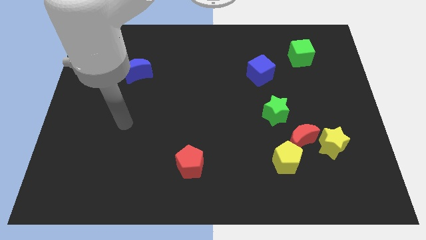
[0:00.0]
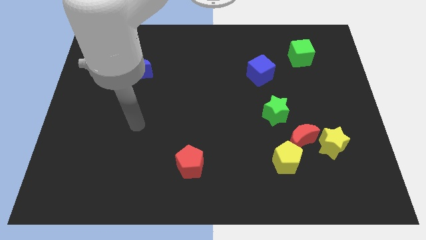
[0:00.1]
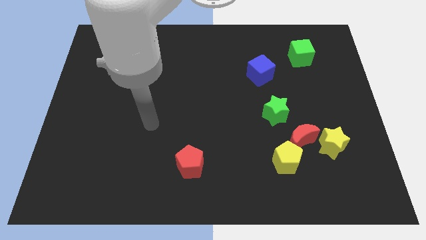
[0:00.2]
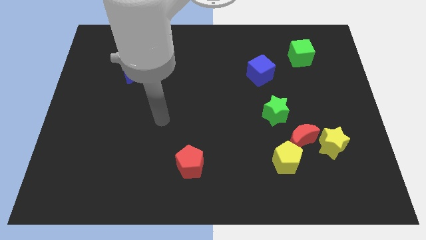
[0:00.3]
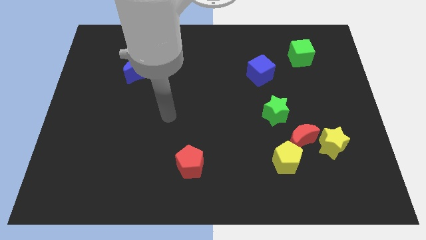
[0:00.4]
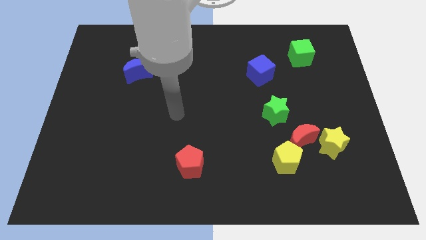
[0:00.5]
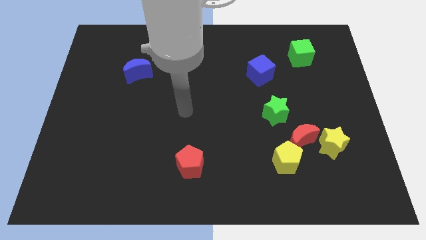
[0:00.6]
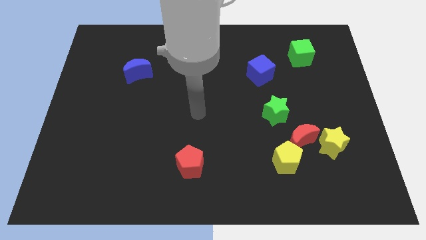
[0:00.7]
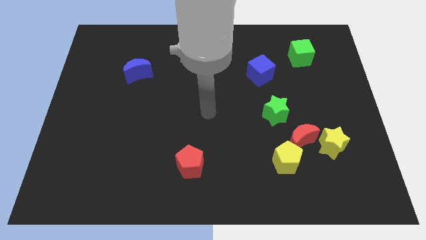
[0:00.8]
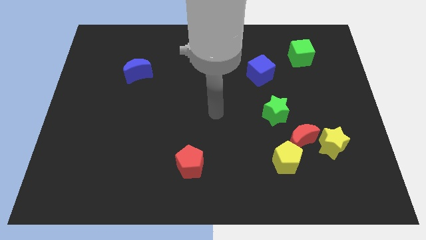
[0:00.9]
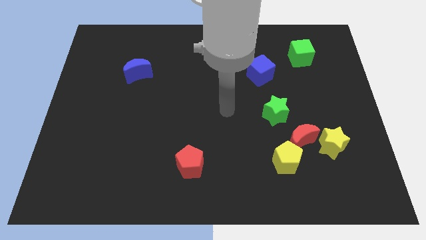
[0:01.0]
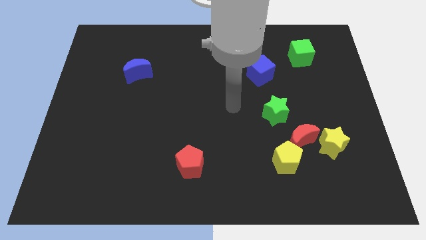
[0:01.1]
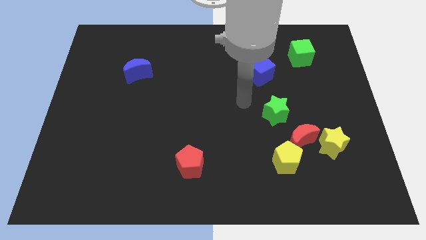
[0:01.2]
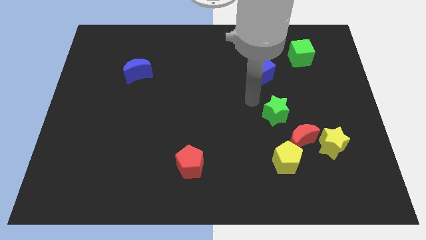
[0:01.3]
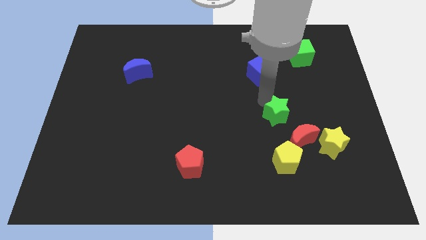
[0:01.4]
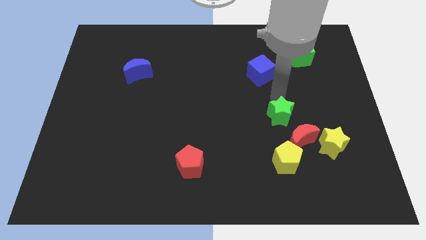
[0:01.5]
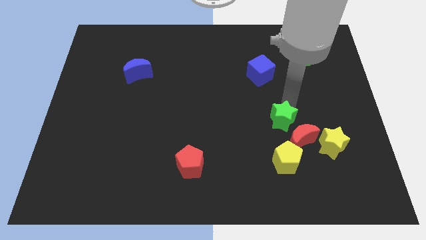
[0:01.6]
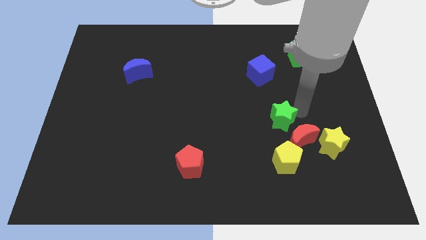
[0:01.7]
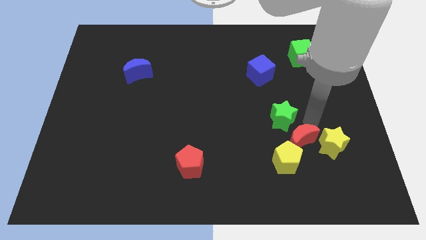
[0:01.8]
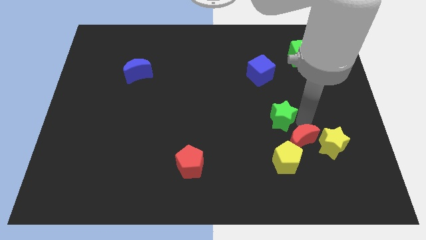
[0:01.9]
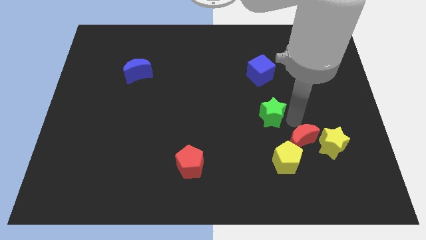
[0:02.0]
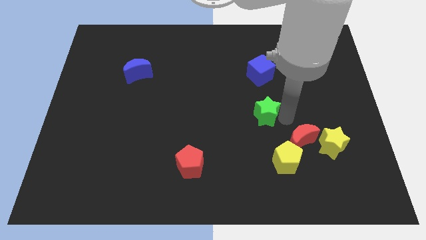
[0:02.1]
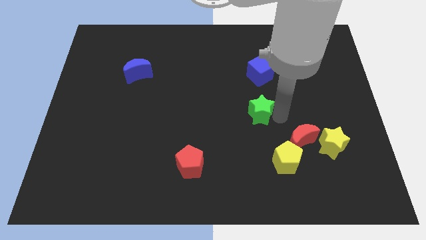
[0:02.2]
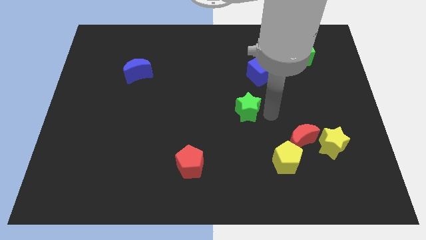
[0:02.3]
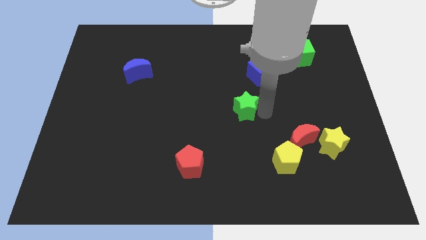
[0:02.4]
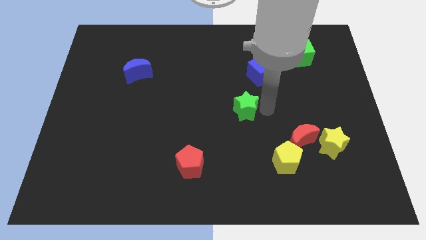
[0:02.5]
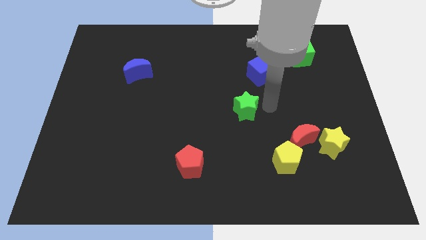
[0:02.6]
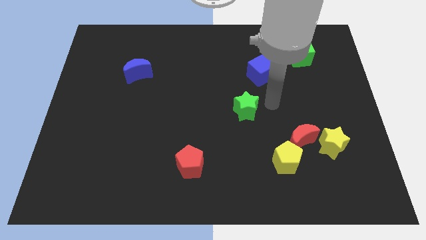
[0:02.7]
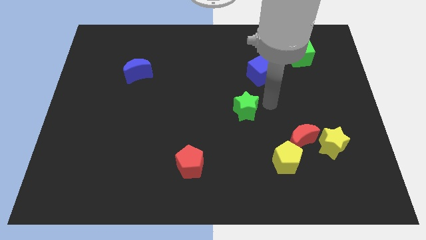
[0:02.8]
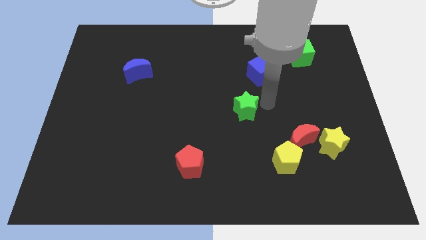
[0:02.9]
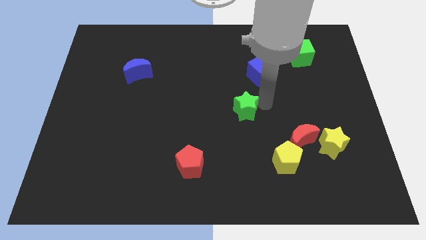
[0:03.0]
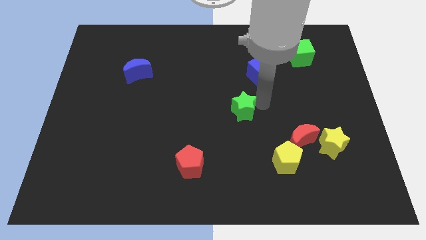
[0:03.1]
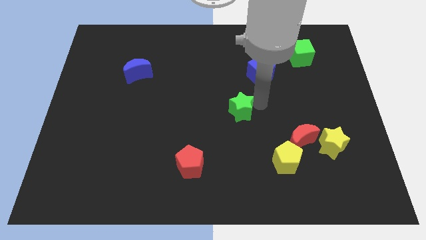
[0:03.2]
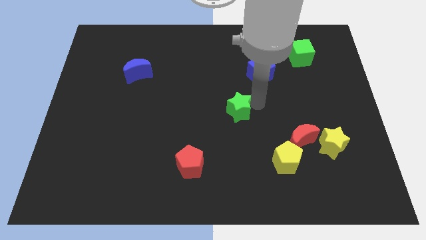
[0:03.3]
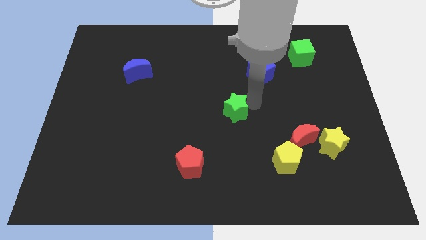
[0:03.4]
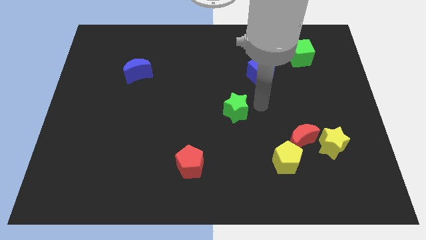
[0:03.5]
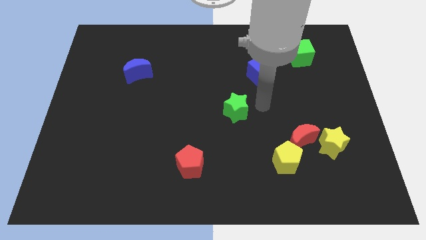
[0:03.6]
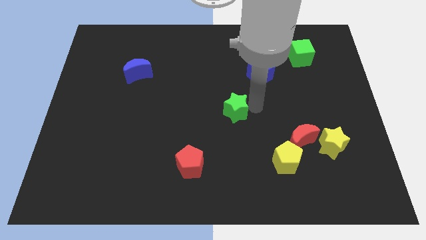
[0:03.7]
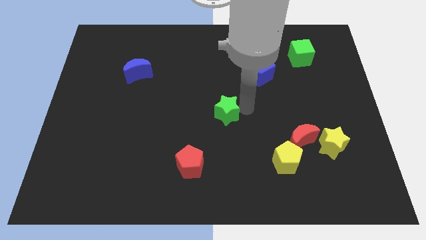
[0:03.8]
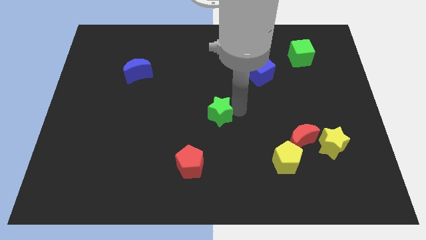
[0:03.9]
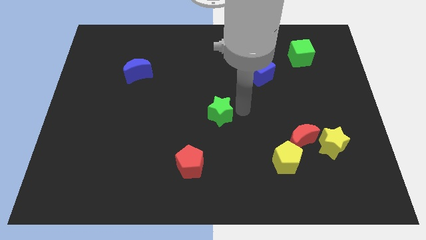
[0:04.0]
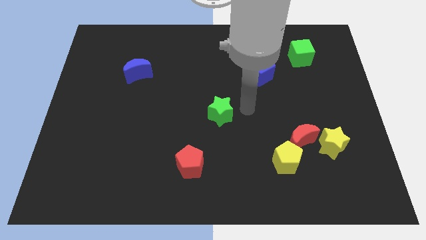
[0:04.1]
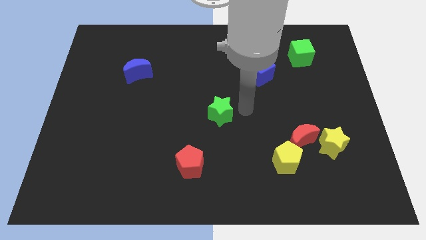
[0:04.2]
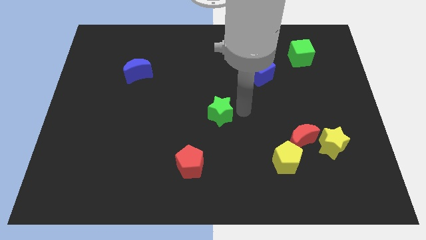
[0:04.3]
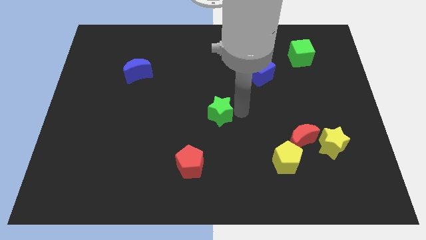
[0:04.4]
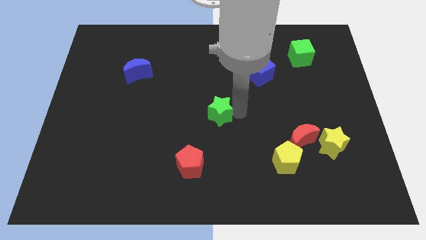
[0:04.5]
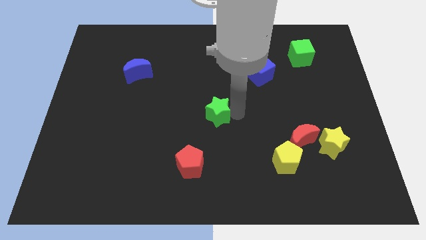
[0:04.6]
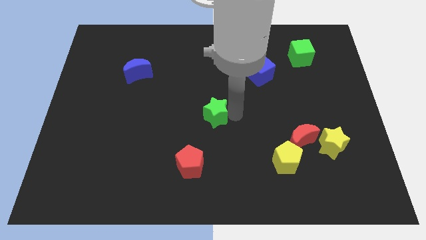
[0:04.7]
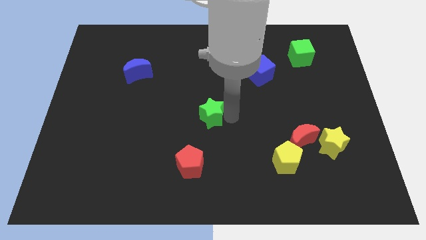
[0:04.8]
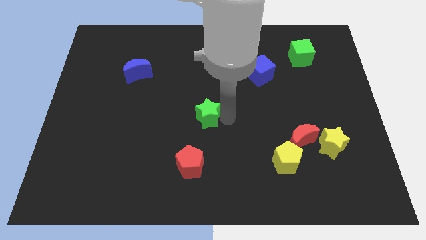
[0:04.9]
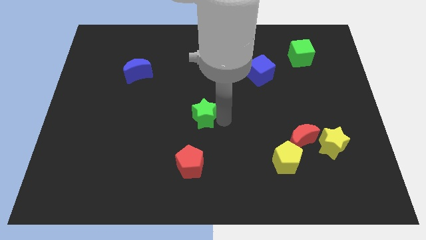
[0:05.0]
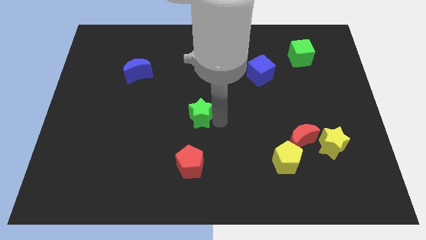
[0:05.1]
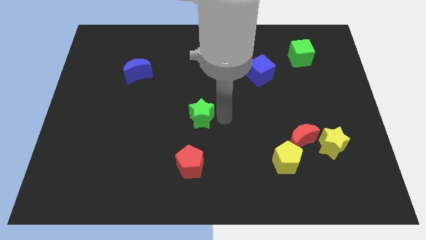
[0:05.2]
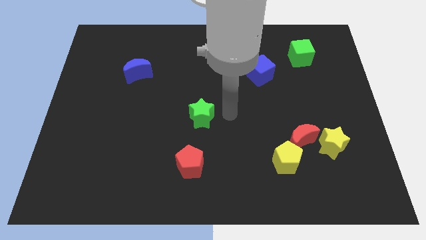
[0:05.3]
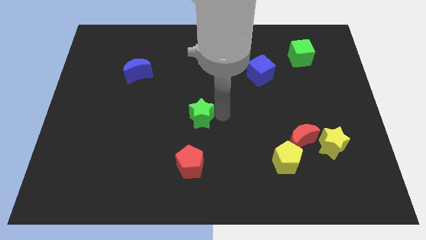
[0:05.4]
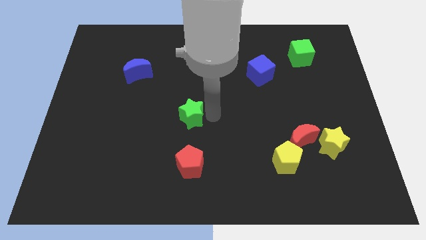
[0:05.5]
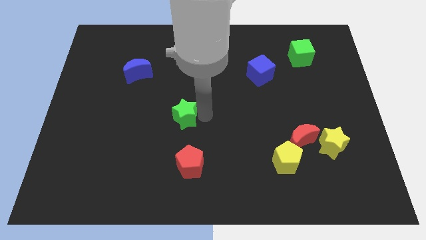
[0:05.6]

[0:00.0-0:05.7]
slide the green star left

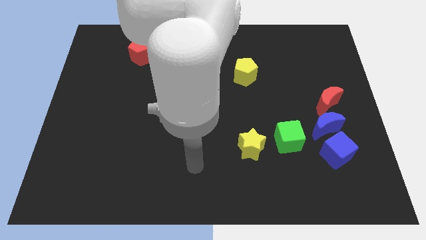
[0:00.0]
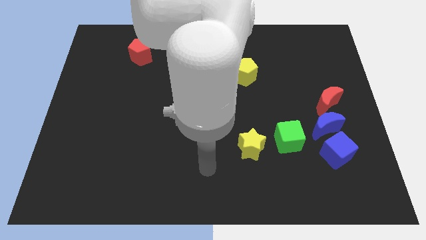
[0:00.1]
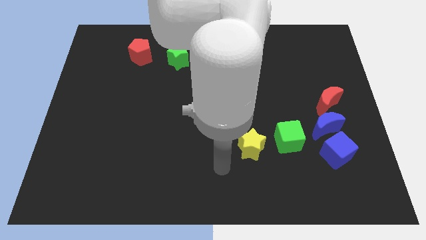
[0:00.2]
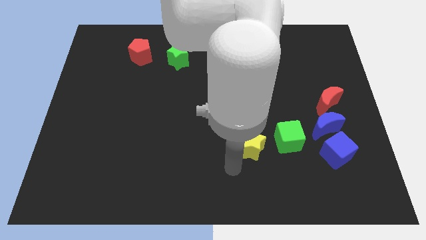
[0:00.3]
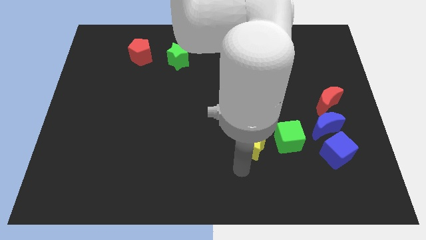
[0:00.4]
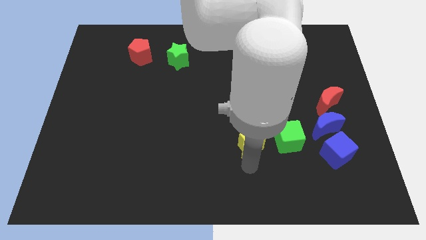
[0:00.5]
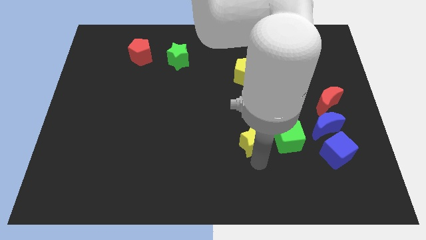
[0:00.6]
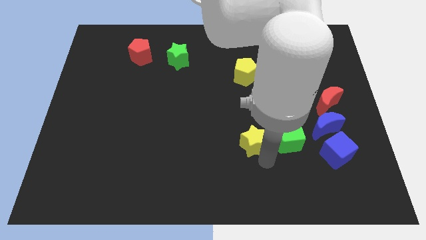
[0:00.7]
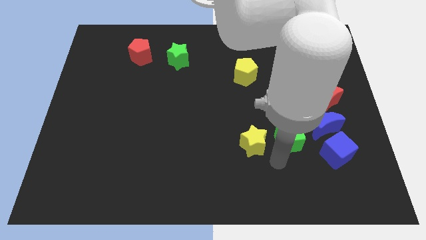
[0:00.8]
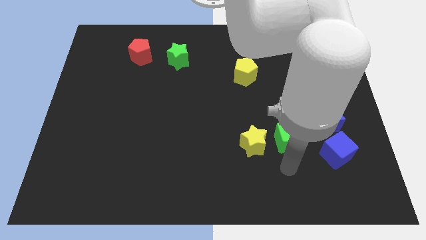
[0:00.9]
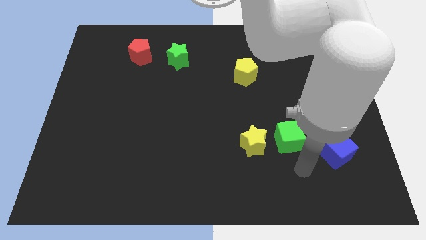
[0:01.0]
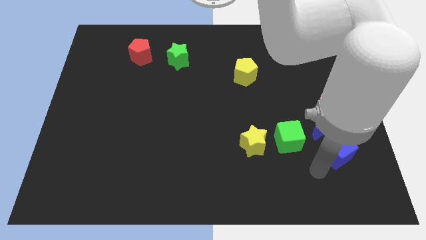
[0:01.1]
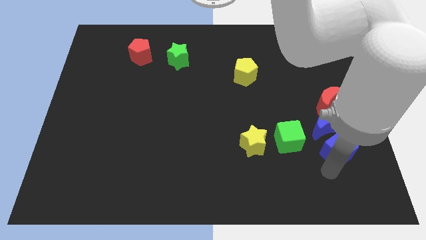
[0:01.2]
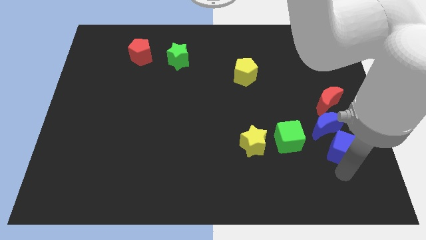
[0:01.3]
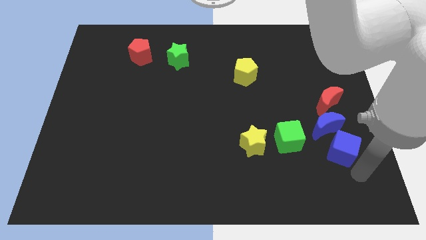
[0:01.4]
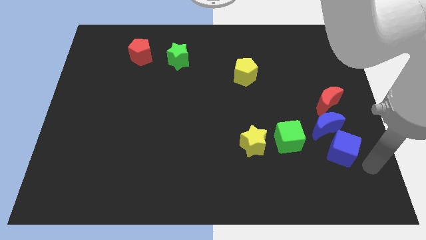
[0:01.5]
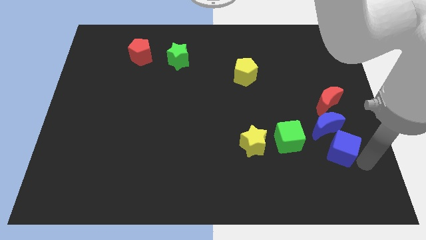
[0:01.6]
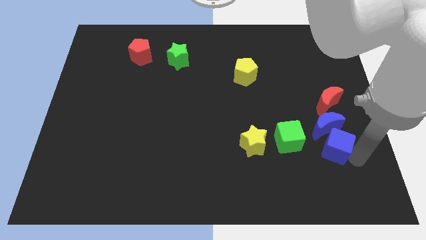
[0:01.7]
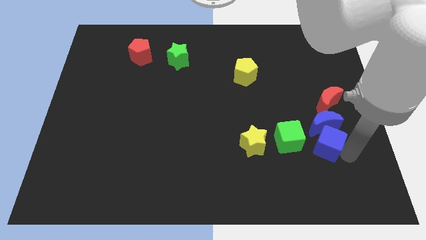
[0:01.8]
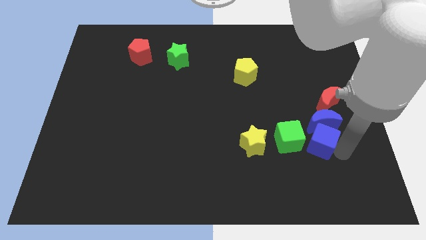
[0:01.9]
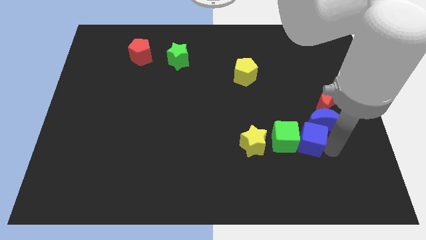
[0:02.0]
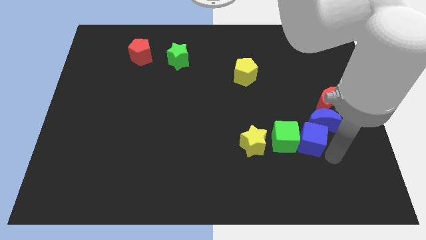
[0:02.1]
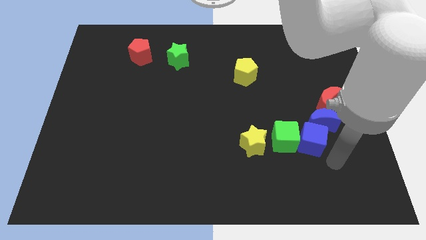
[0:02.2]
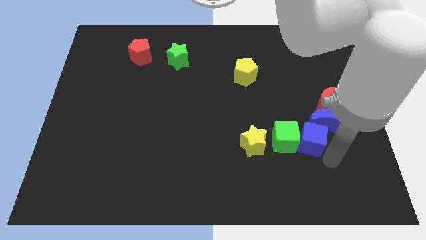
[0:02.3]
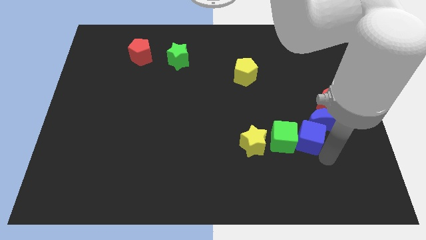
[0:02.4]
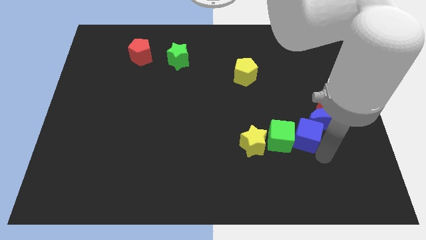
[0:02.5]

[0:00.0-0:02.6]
slide the blue cube upwards and left a bit
